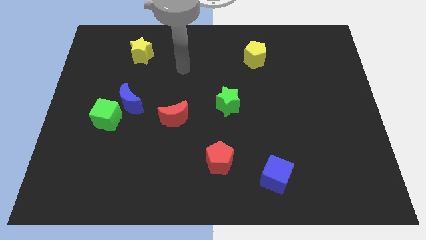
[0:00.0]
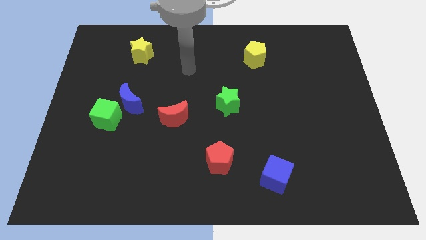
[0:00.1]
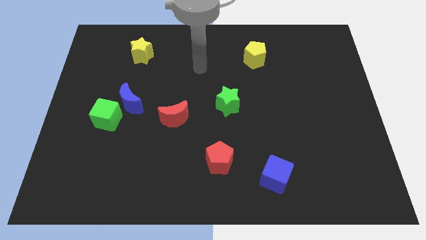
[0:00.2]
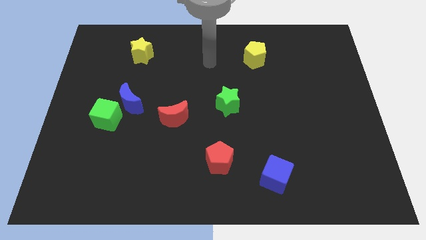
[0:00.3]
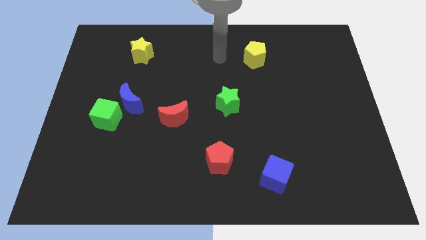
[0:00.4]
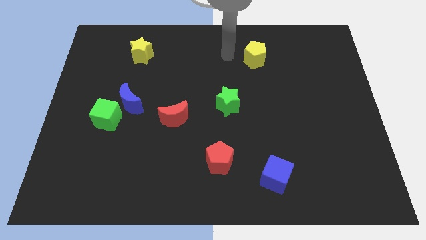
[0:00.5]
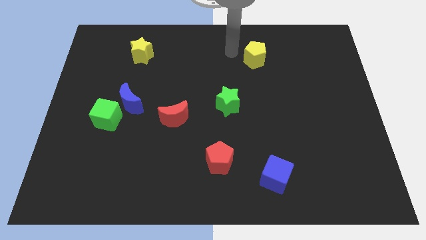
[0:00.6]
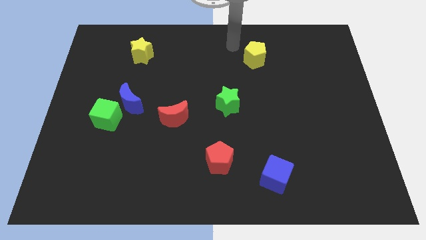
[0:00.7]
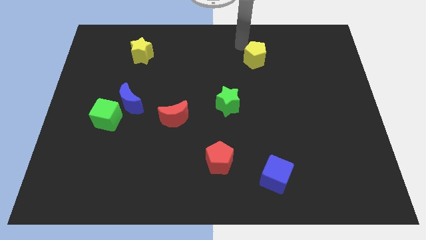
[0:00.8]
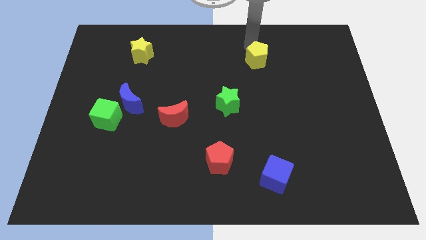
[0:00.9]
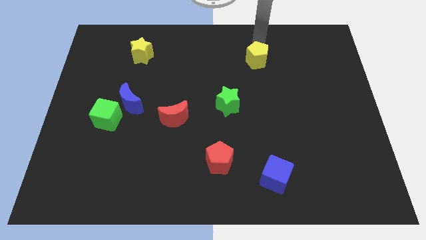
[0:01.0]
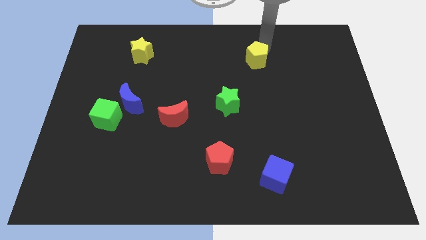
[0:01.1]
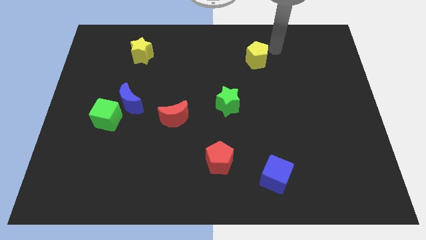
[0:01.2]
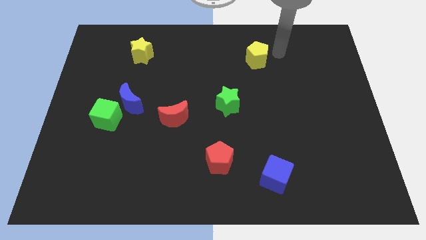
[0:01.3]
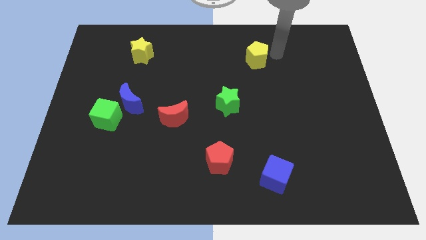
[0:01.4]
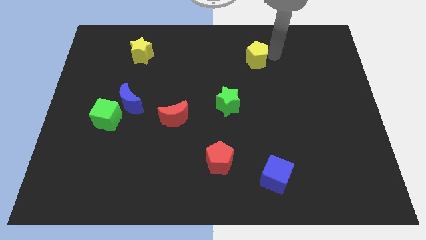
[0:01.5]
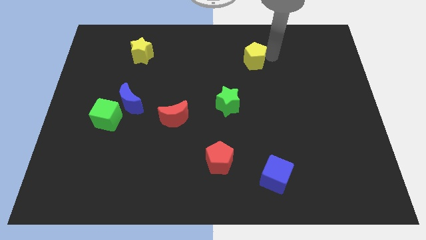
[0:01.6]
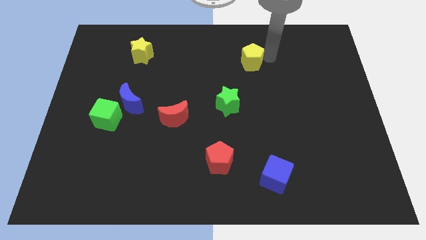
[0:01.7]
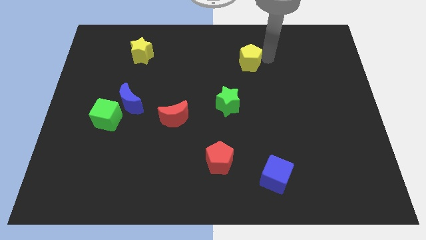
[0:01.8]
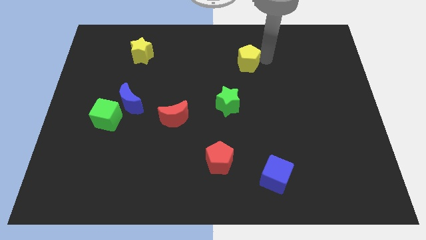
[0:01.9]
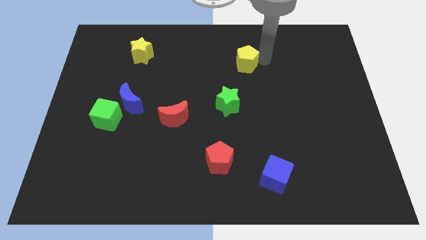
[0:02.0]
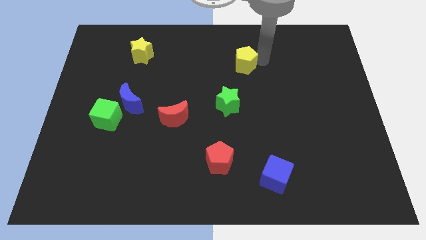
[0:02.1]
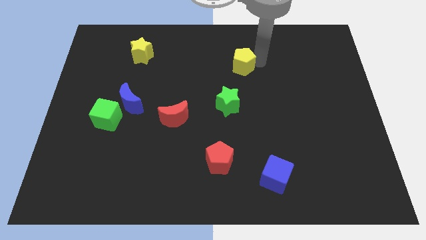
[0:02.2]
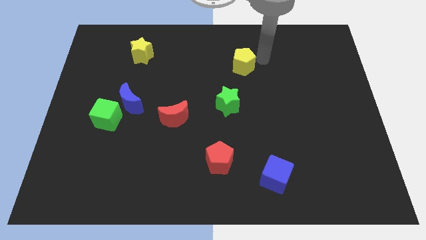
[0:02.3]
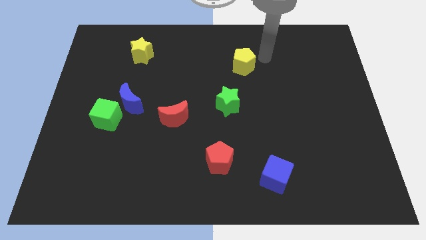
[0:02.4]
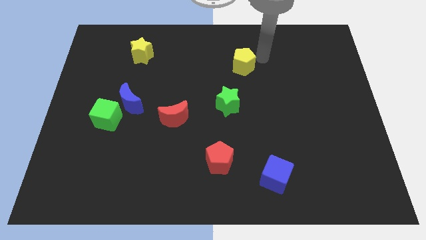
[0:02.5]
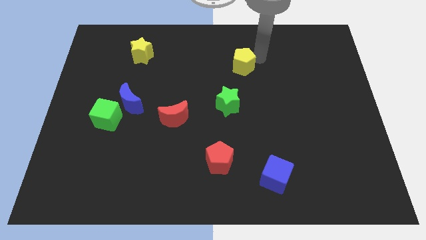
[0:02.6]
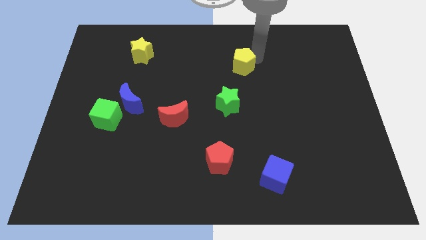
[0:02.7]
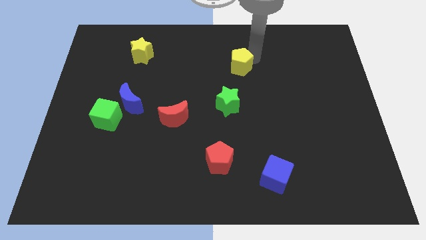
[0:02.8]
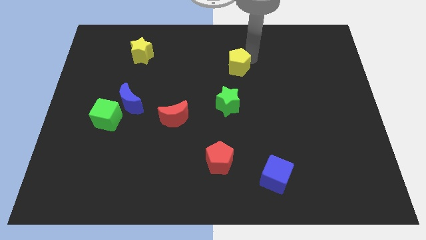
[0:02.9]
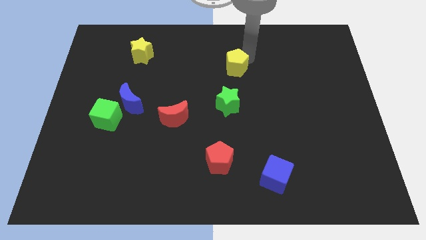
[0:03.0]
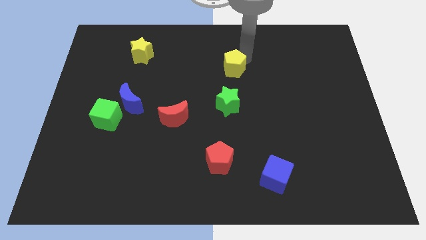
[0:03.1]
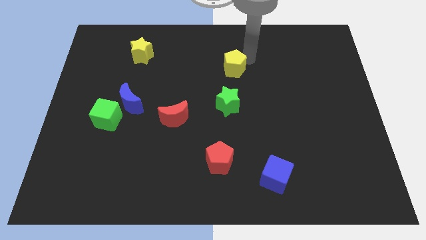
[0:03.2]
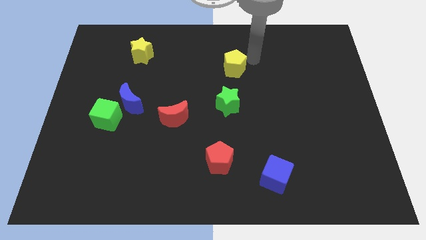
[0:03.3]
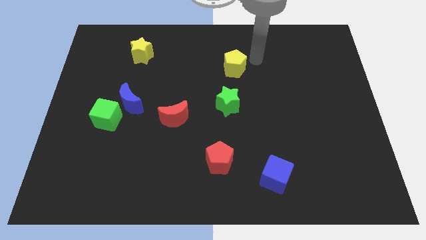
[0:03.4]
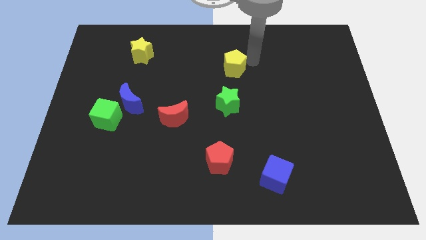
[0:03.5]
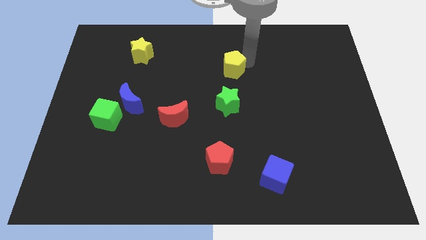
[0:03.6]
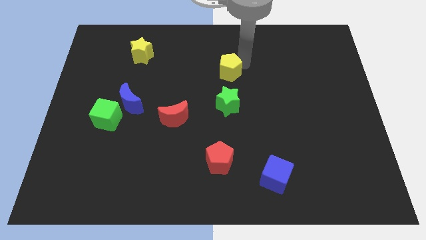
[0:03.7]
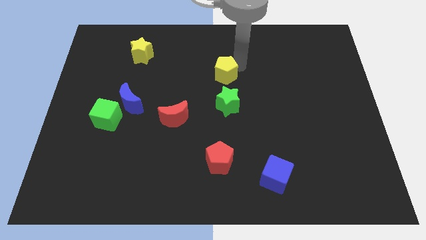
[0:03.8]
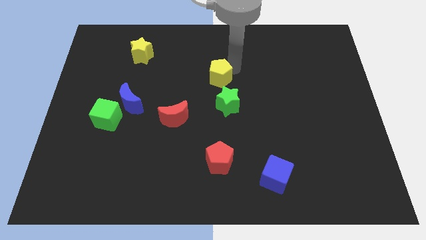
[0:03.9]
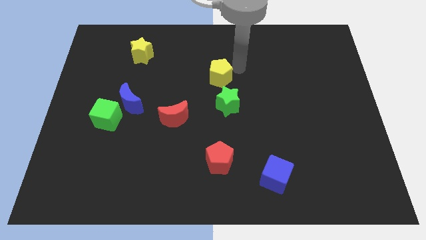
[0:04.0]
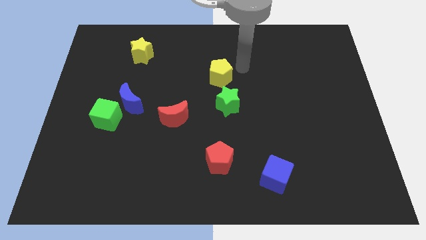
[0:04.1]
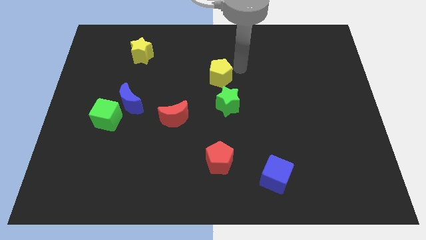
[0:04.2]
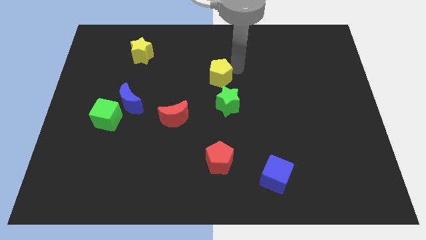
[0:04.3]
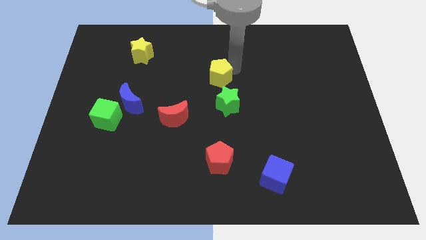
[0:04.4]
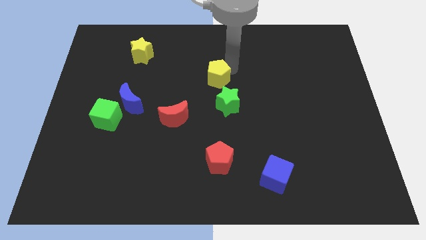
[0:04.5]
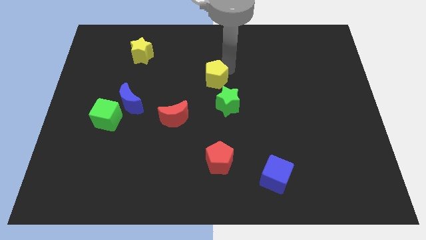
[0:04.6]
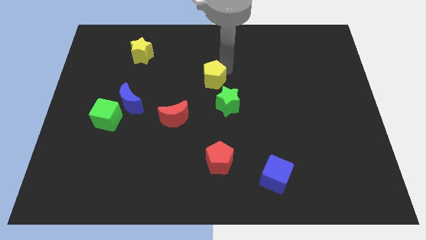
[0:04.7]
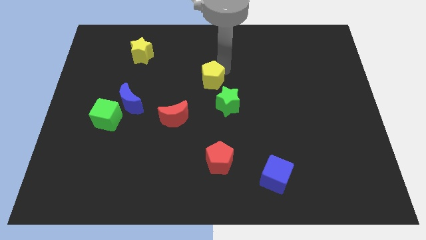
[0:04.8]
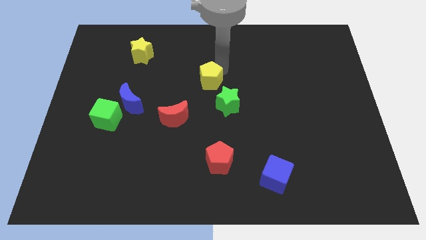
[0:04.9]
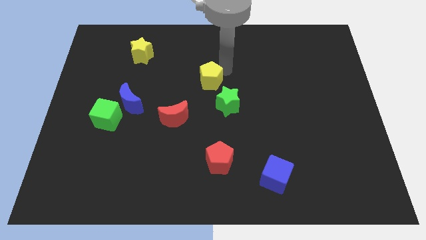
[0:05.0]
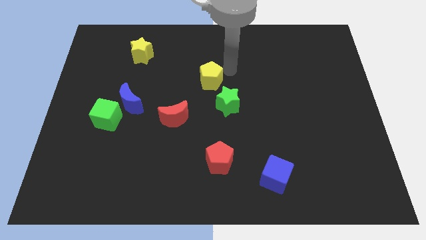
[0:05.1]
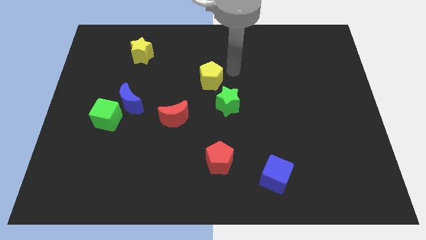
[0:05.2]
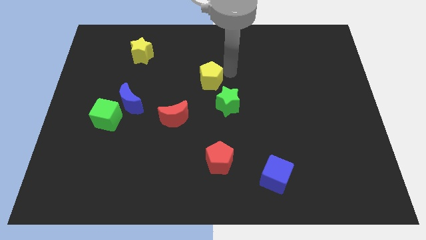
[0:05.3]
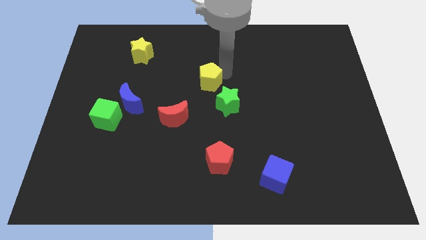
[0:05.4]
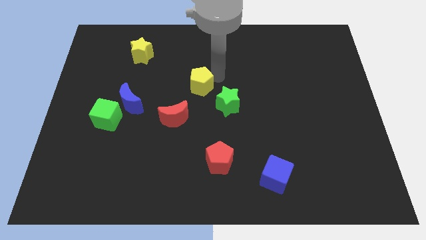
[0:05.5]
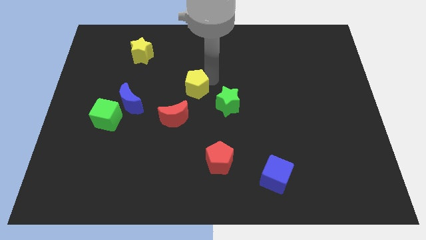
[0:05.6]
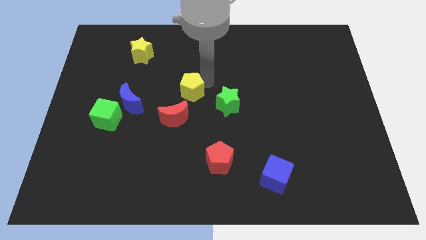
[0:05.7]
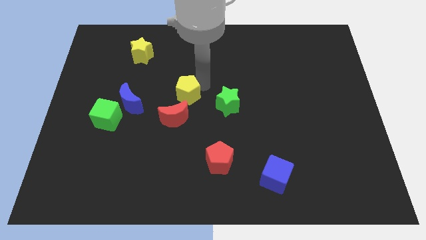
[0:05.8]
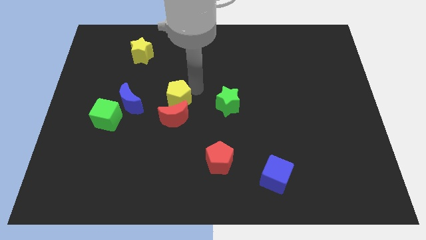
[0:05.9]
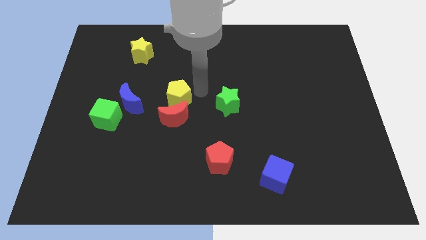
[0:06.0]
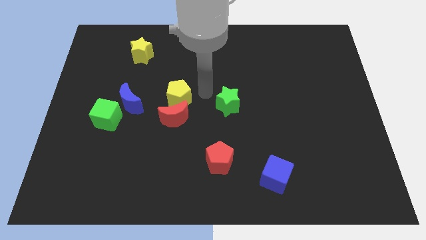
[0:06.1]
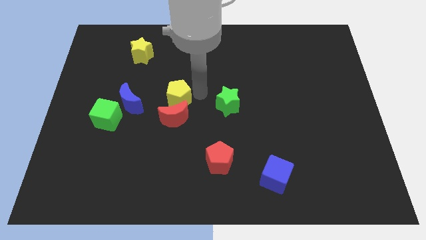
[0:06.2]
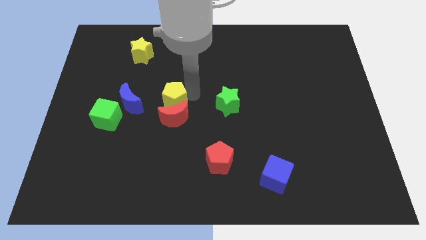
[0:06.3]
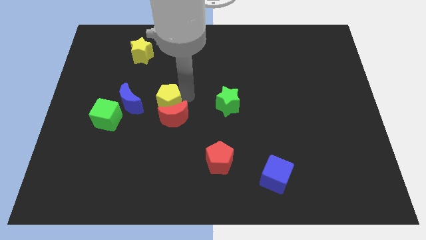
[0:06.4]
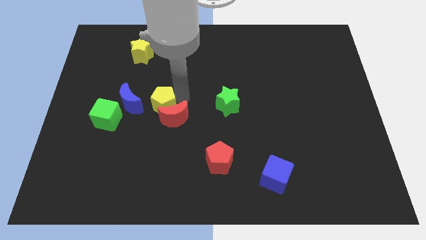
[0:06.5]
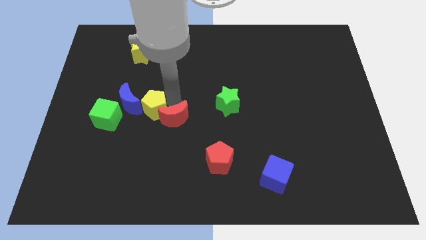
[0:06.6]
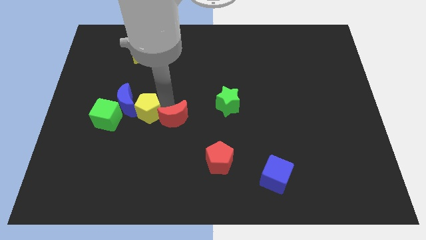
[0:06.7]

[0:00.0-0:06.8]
move the yellow pentagon close to the blue moon

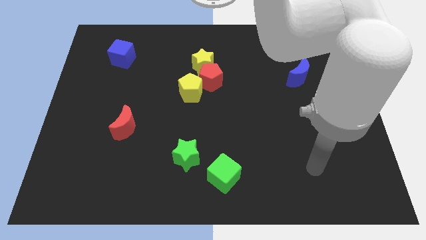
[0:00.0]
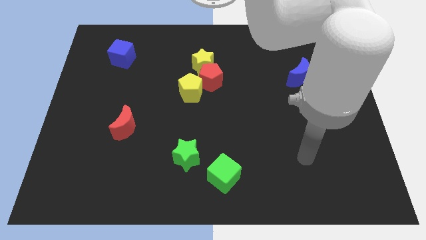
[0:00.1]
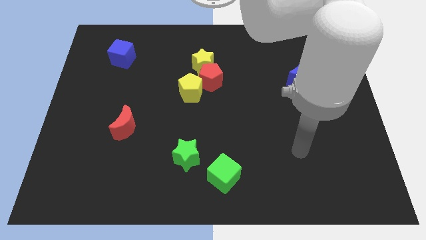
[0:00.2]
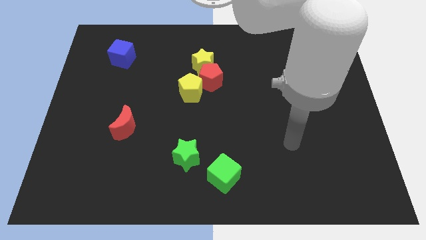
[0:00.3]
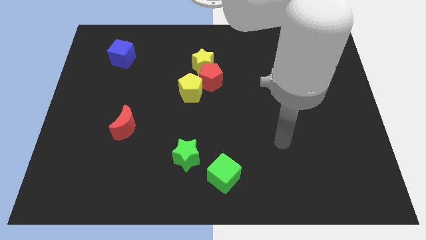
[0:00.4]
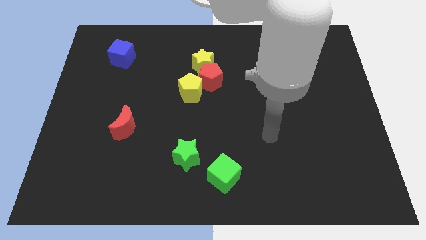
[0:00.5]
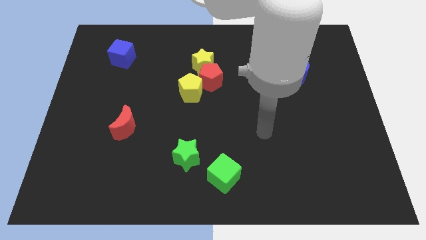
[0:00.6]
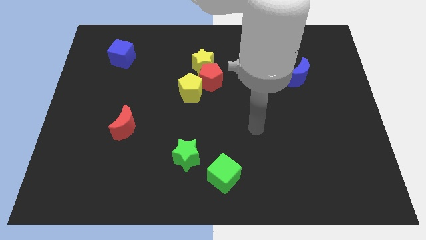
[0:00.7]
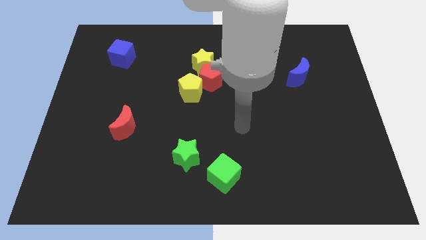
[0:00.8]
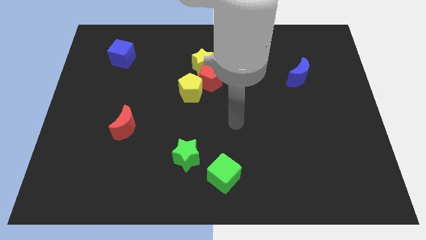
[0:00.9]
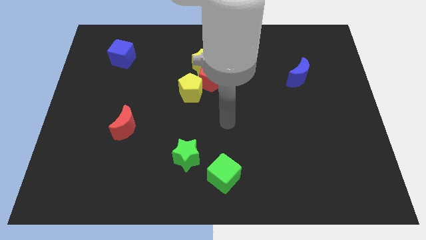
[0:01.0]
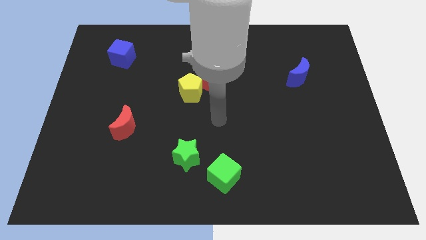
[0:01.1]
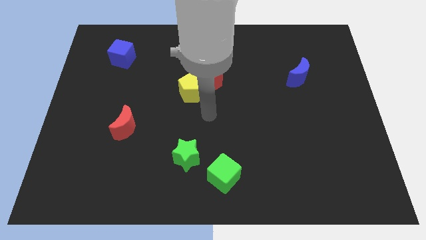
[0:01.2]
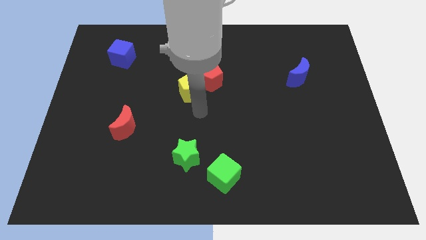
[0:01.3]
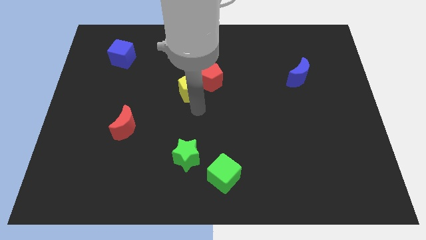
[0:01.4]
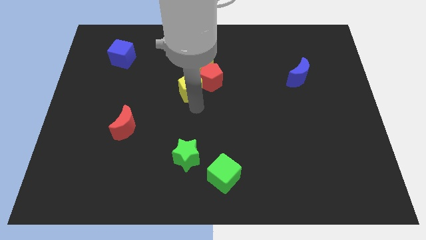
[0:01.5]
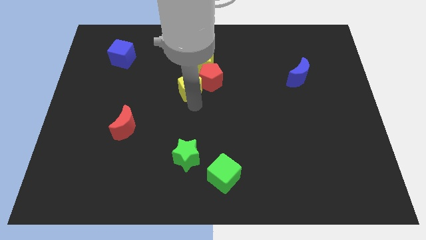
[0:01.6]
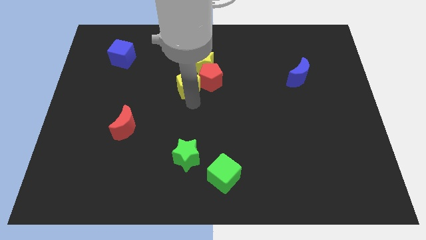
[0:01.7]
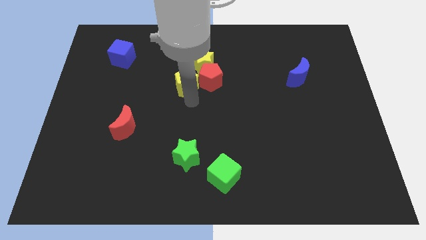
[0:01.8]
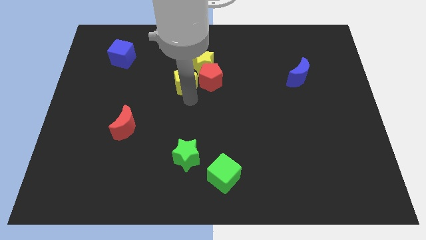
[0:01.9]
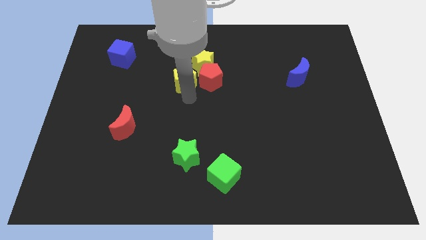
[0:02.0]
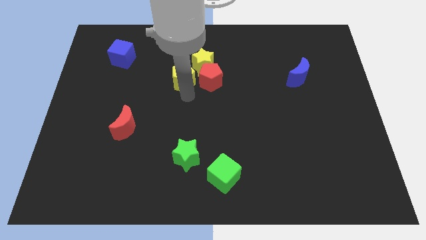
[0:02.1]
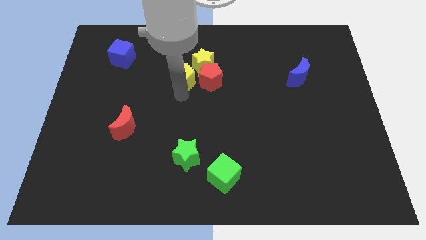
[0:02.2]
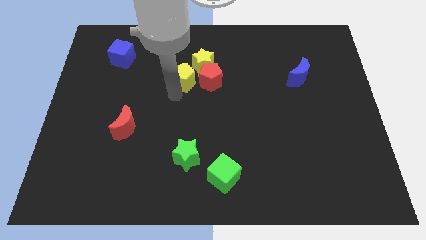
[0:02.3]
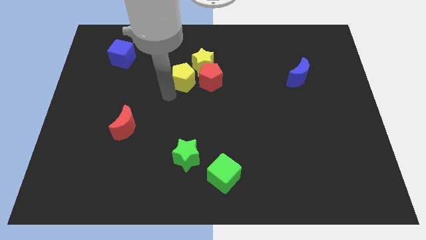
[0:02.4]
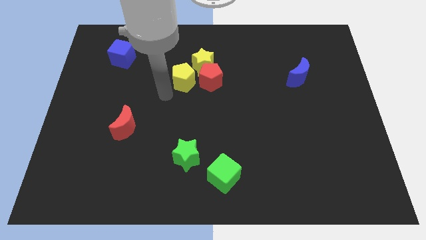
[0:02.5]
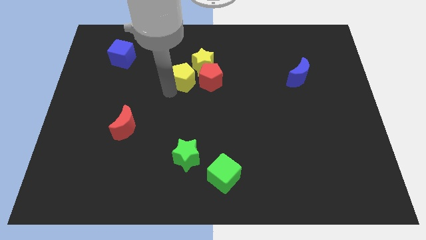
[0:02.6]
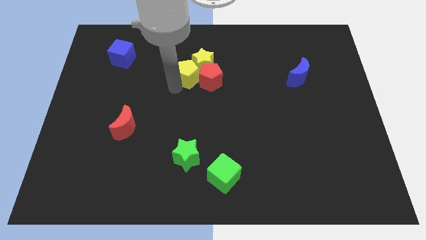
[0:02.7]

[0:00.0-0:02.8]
push the yellow pentagon next to the yellow star
